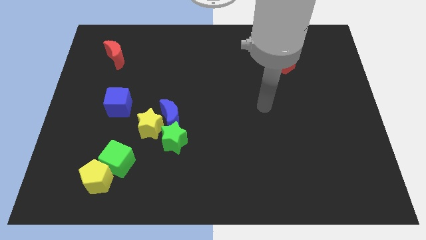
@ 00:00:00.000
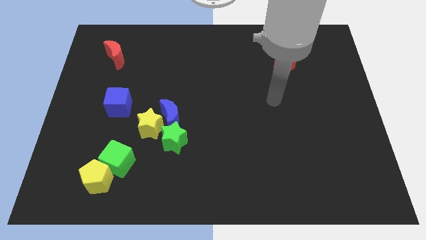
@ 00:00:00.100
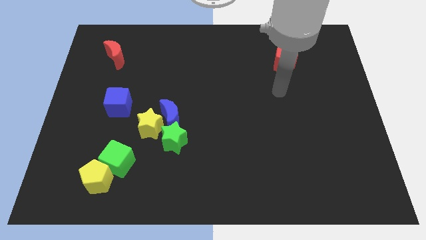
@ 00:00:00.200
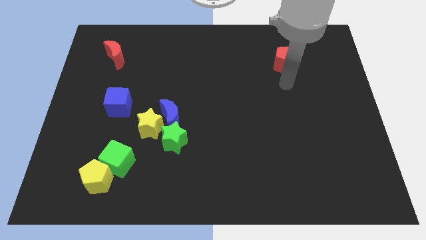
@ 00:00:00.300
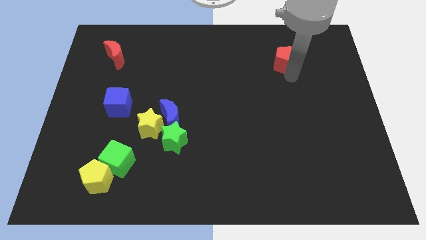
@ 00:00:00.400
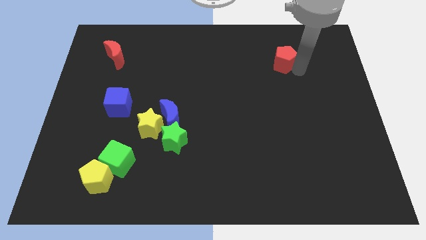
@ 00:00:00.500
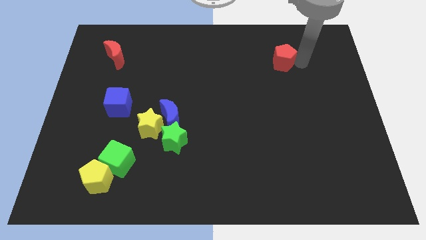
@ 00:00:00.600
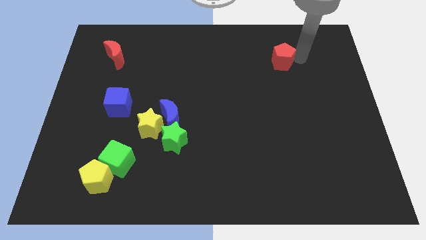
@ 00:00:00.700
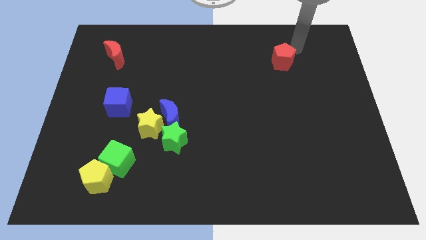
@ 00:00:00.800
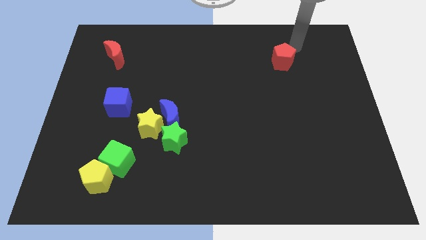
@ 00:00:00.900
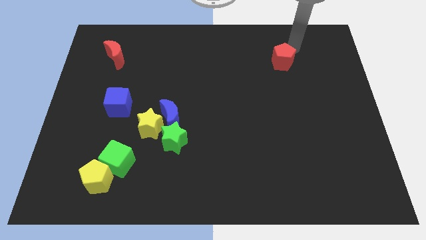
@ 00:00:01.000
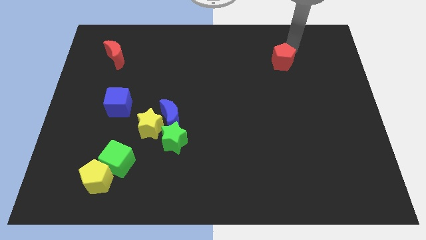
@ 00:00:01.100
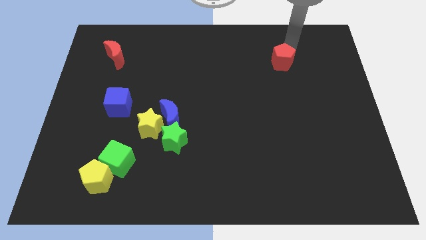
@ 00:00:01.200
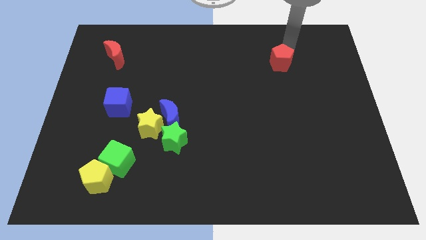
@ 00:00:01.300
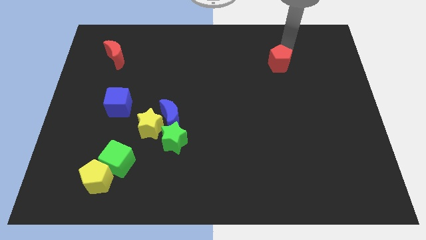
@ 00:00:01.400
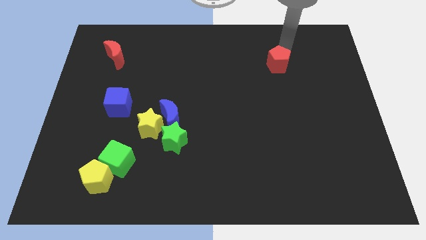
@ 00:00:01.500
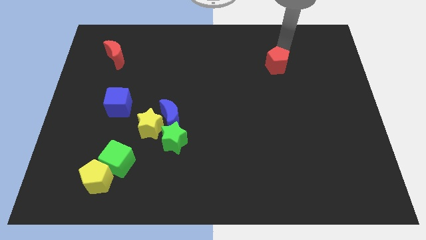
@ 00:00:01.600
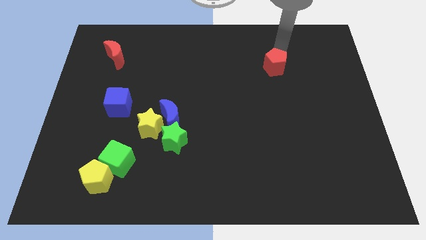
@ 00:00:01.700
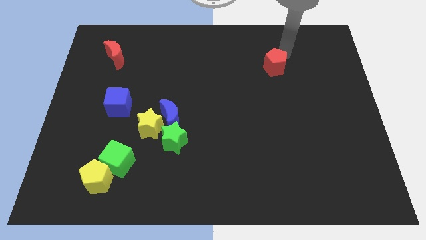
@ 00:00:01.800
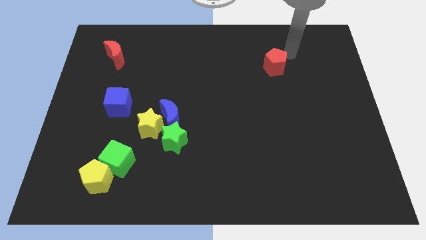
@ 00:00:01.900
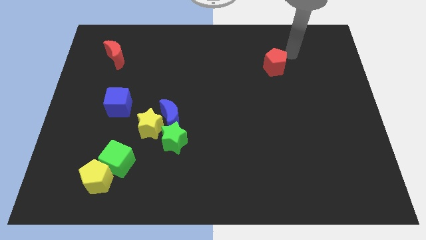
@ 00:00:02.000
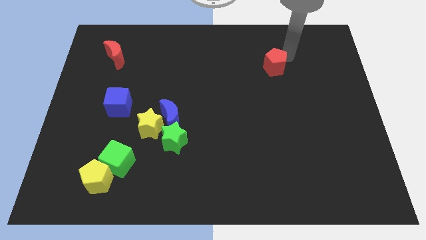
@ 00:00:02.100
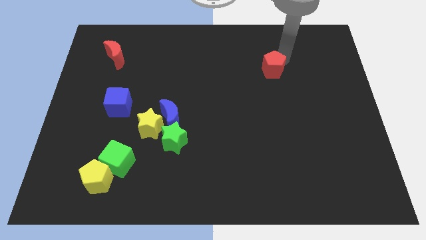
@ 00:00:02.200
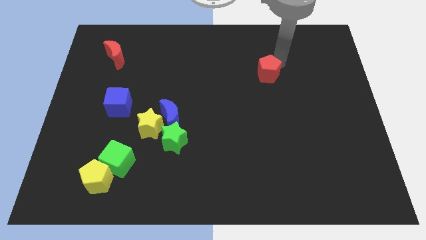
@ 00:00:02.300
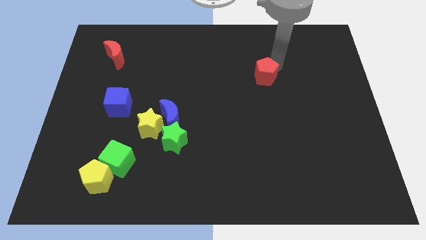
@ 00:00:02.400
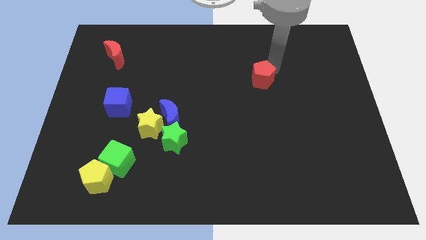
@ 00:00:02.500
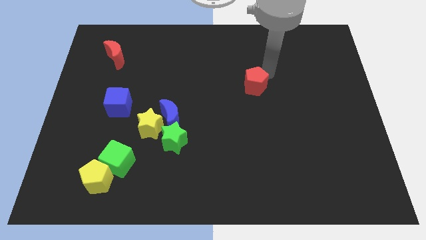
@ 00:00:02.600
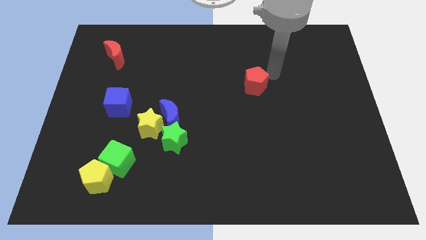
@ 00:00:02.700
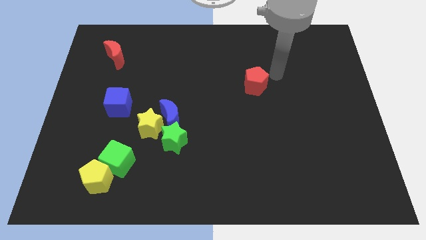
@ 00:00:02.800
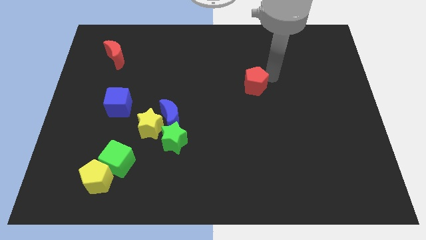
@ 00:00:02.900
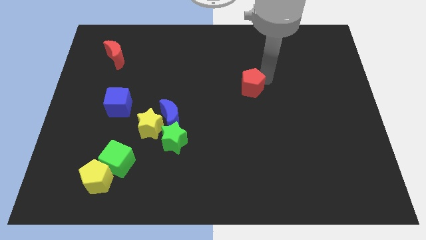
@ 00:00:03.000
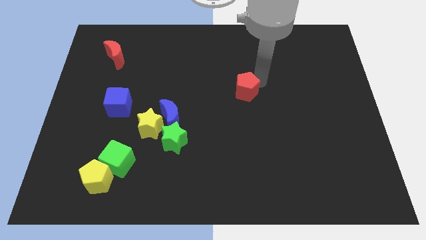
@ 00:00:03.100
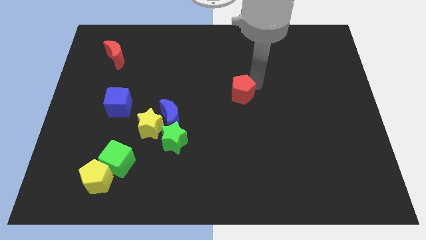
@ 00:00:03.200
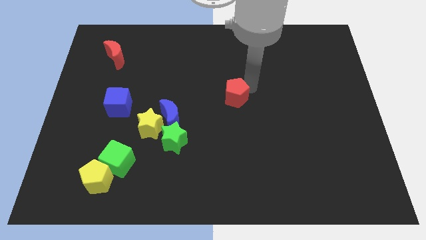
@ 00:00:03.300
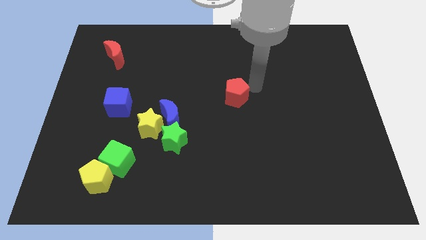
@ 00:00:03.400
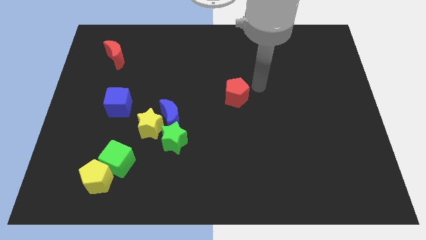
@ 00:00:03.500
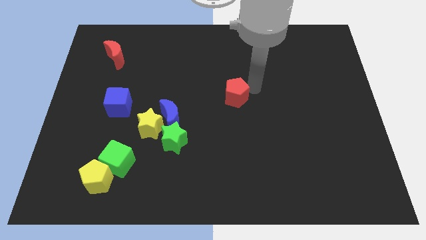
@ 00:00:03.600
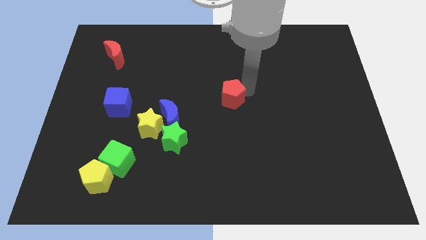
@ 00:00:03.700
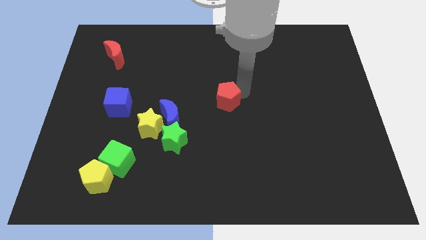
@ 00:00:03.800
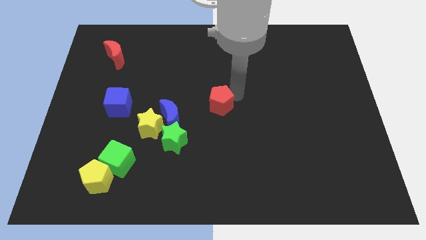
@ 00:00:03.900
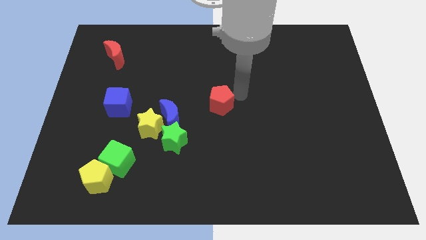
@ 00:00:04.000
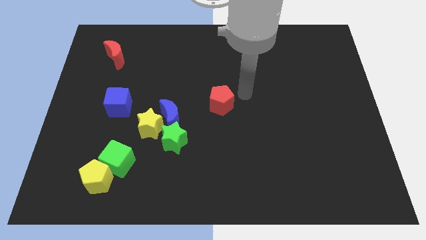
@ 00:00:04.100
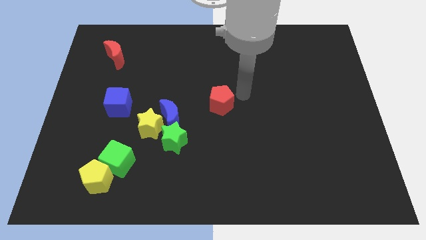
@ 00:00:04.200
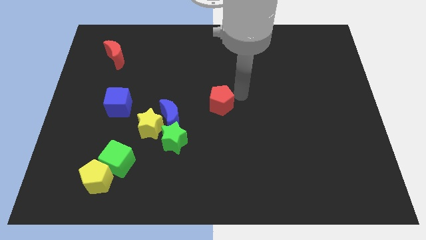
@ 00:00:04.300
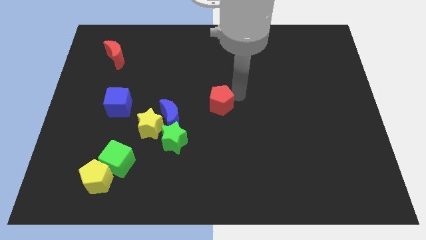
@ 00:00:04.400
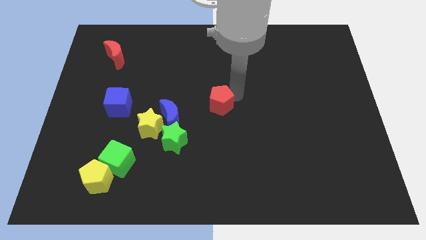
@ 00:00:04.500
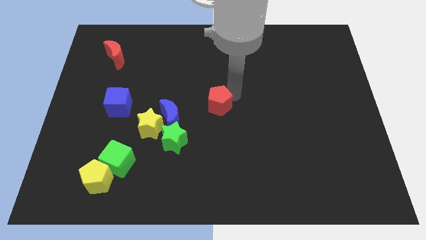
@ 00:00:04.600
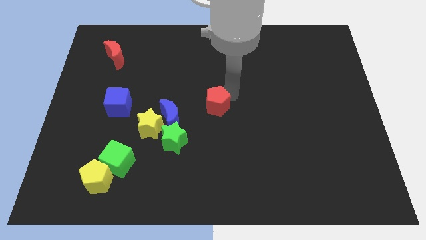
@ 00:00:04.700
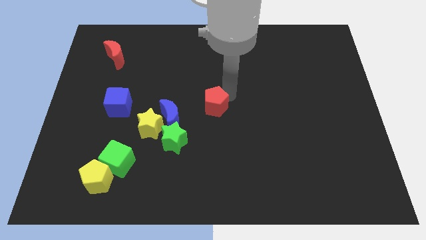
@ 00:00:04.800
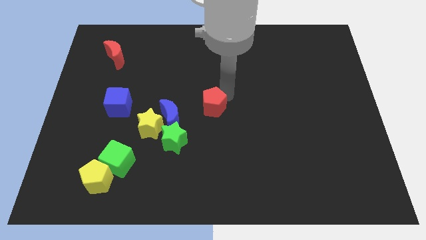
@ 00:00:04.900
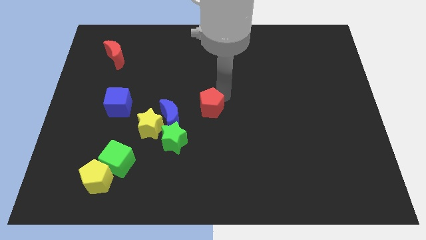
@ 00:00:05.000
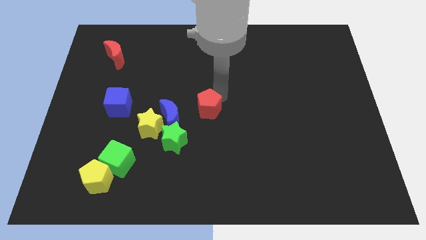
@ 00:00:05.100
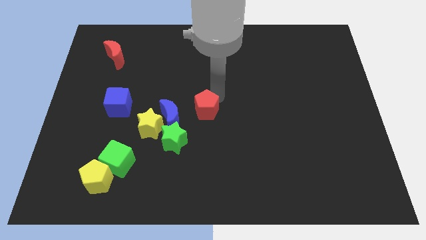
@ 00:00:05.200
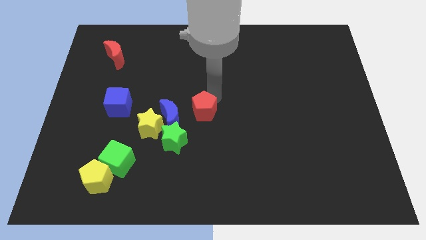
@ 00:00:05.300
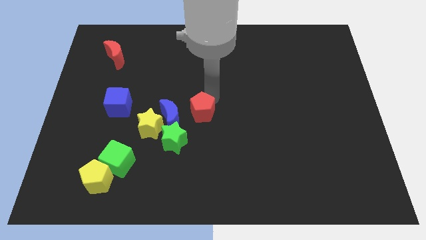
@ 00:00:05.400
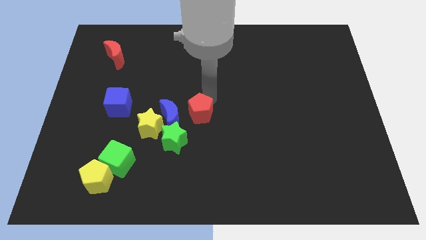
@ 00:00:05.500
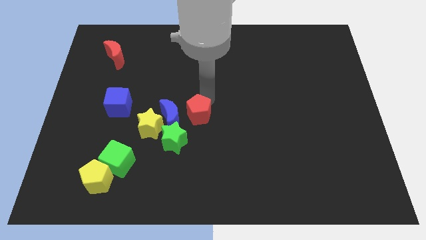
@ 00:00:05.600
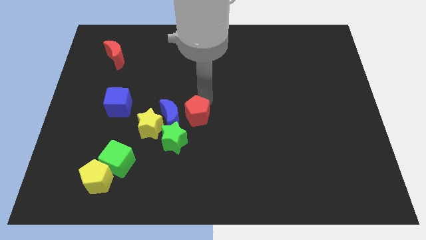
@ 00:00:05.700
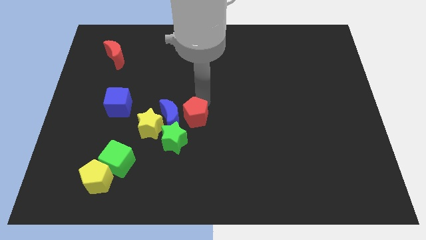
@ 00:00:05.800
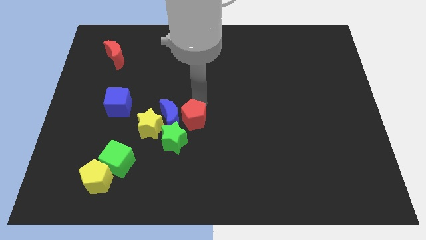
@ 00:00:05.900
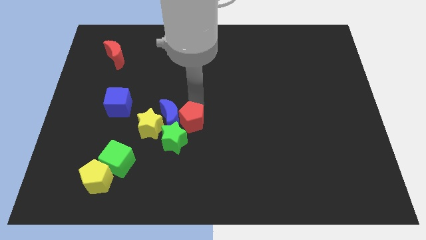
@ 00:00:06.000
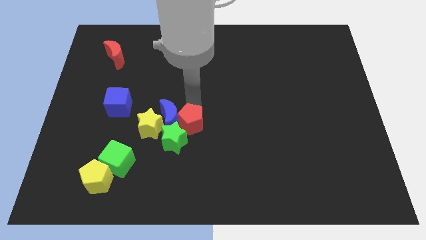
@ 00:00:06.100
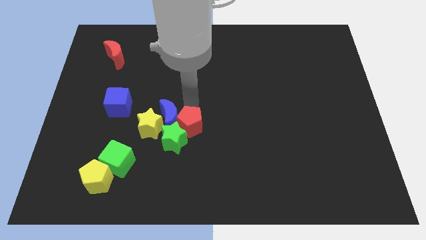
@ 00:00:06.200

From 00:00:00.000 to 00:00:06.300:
put the red pentagon next to the green star

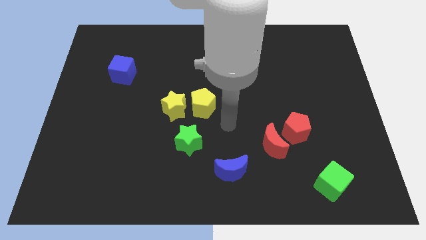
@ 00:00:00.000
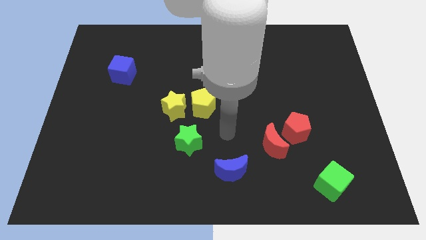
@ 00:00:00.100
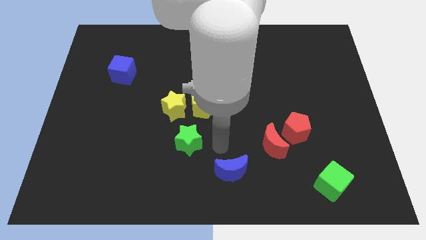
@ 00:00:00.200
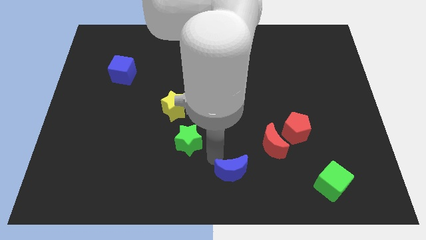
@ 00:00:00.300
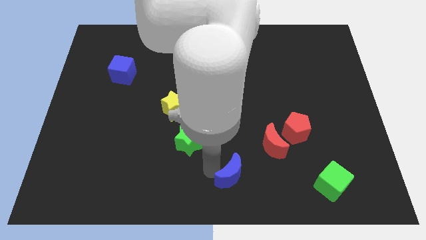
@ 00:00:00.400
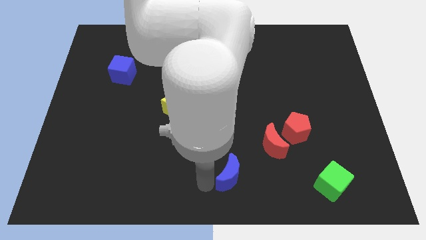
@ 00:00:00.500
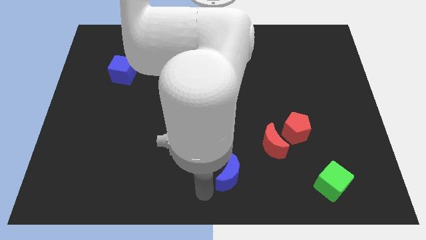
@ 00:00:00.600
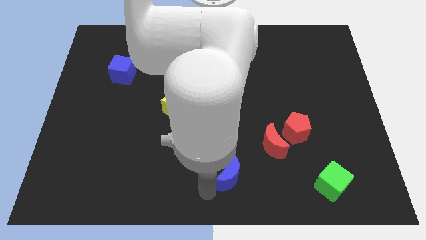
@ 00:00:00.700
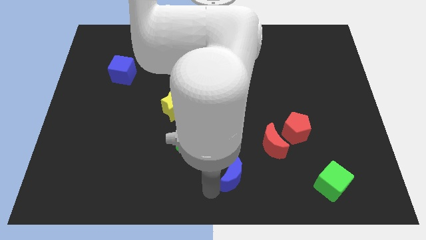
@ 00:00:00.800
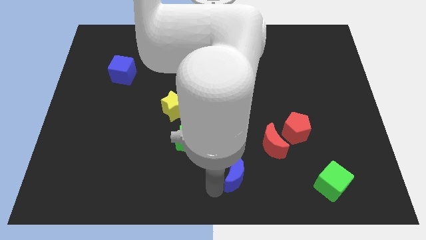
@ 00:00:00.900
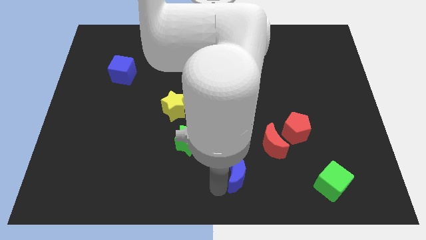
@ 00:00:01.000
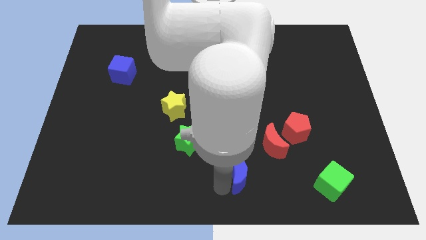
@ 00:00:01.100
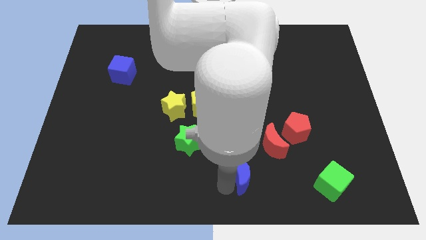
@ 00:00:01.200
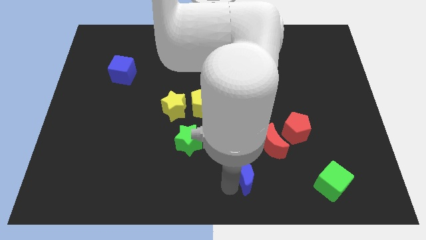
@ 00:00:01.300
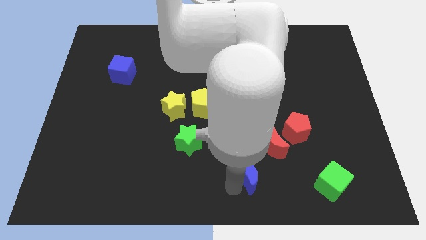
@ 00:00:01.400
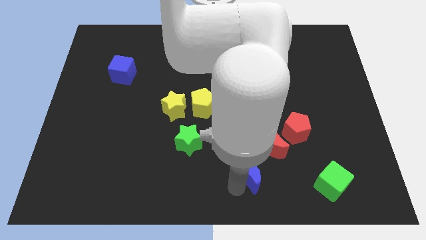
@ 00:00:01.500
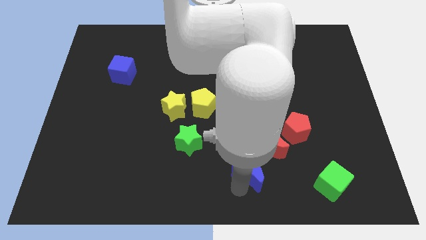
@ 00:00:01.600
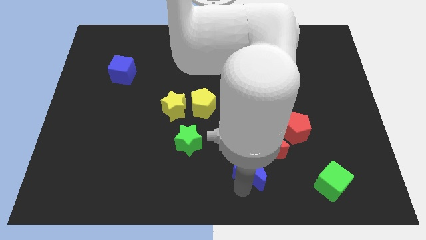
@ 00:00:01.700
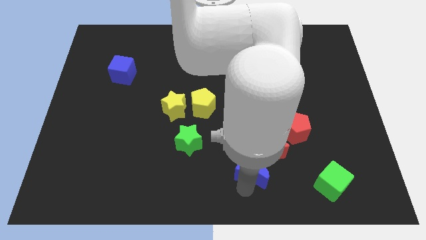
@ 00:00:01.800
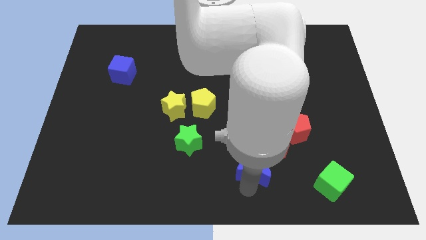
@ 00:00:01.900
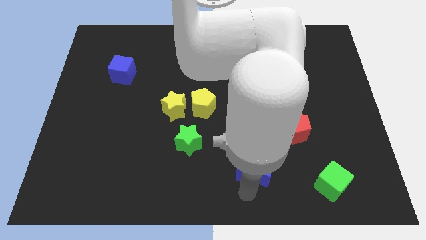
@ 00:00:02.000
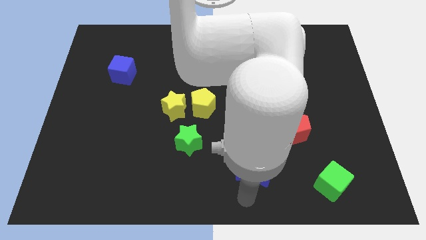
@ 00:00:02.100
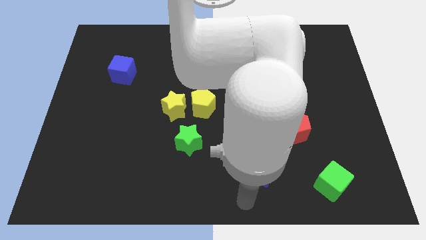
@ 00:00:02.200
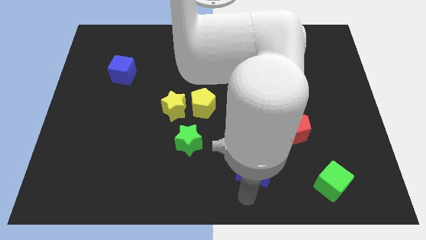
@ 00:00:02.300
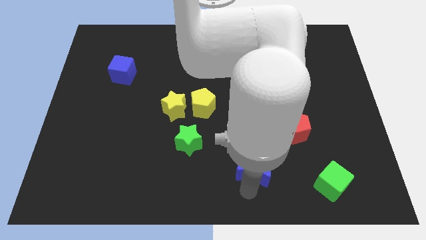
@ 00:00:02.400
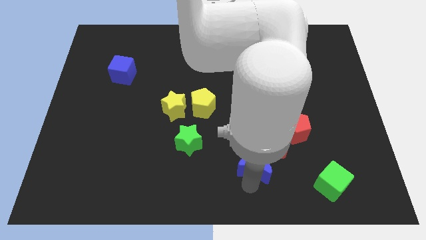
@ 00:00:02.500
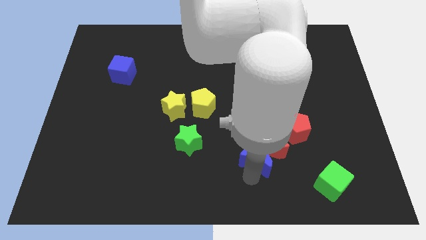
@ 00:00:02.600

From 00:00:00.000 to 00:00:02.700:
push the blue moon towards the red moon
